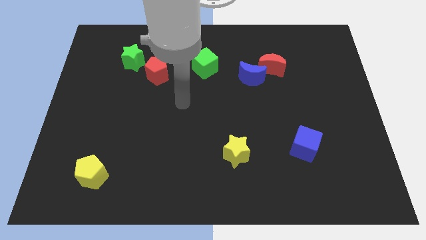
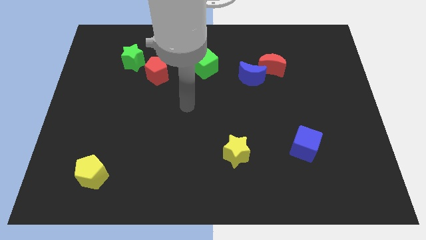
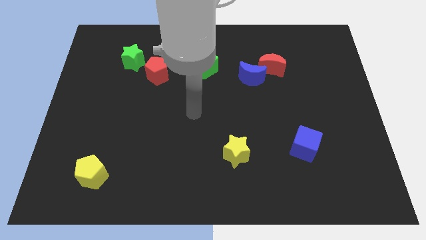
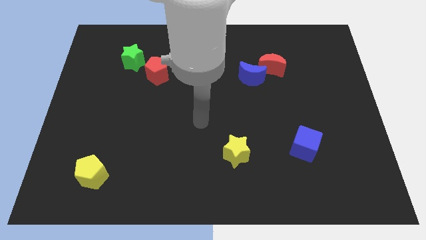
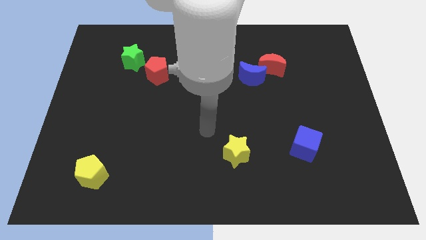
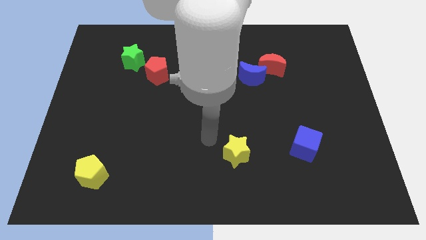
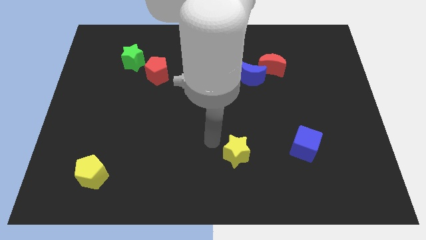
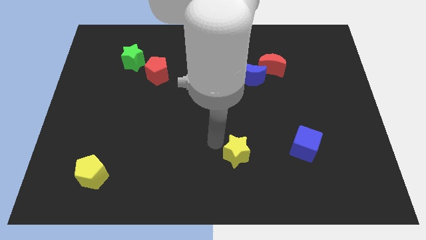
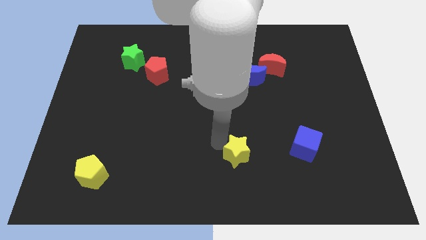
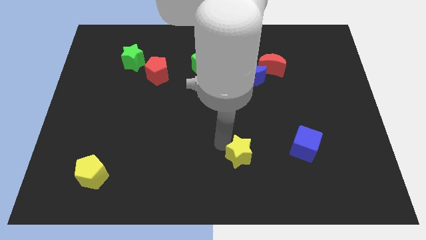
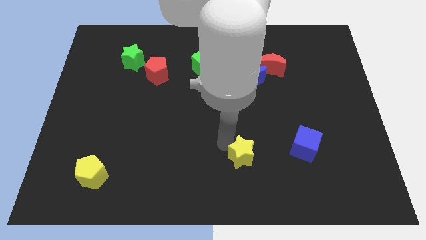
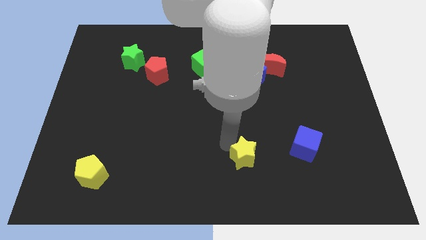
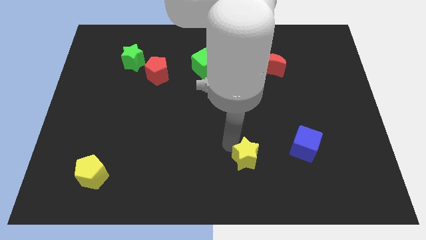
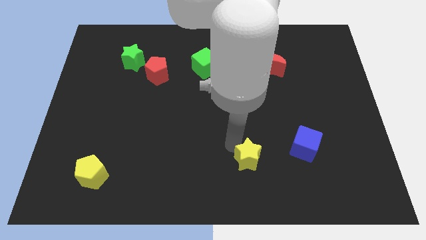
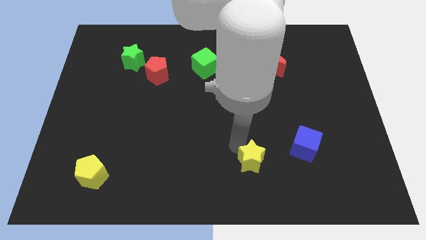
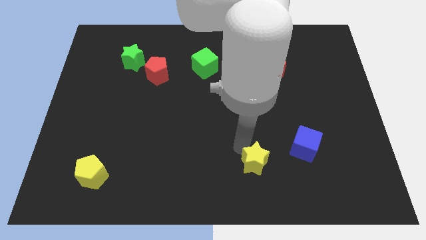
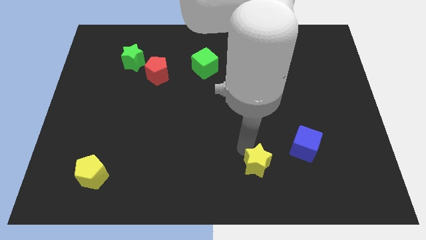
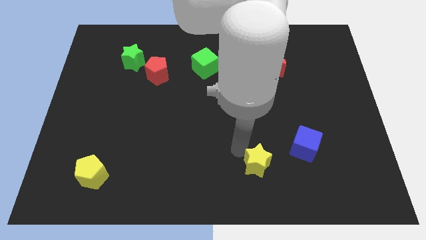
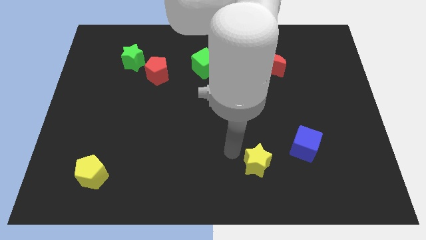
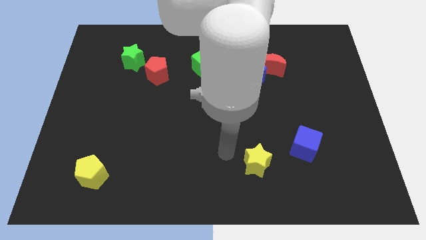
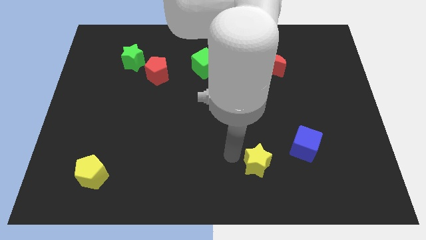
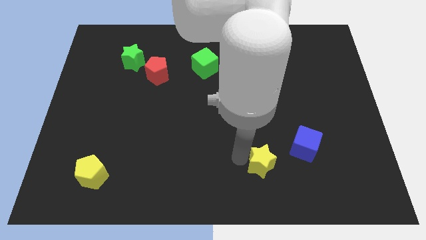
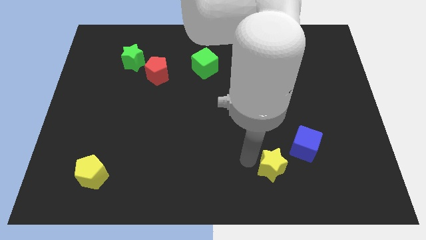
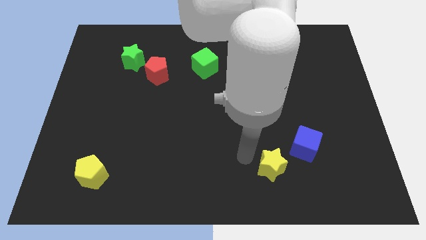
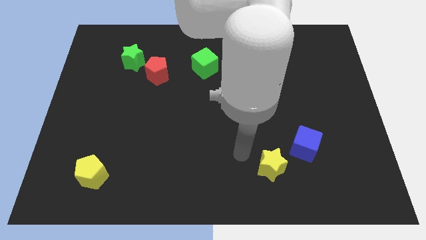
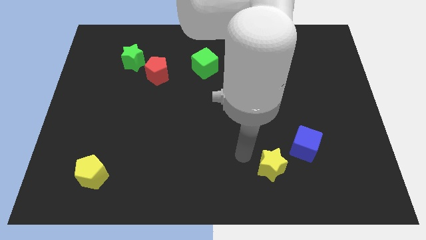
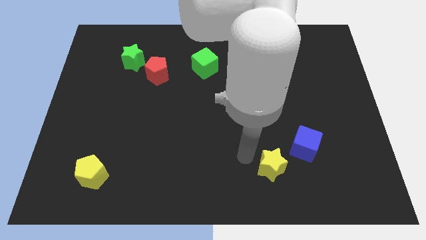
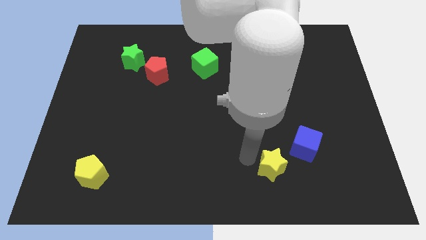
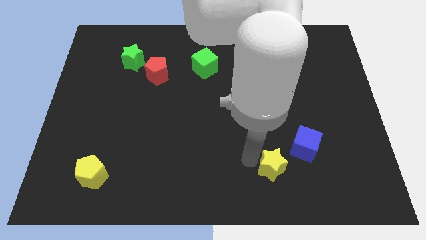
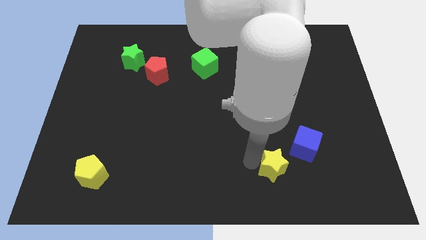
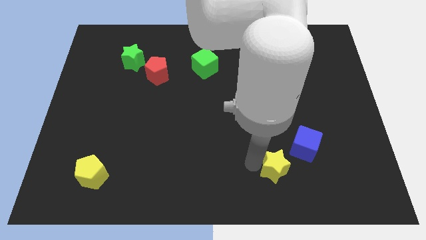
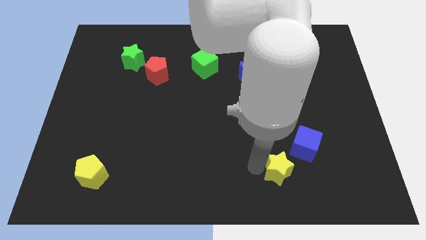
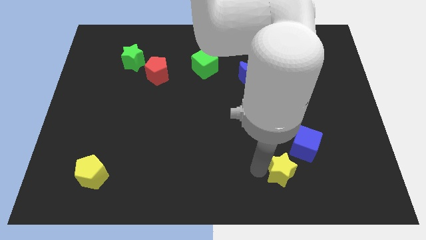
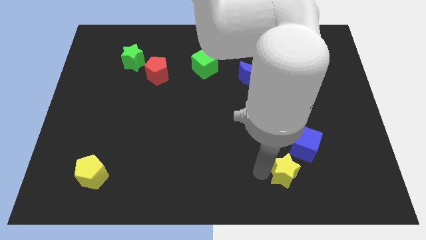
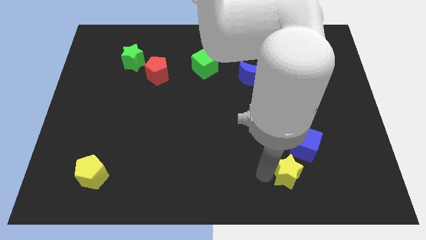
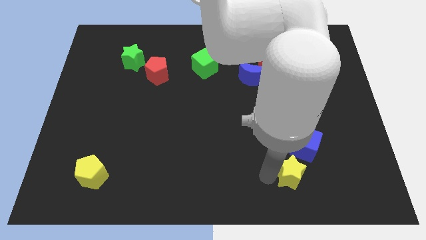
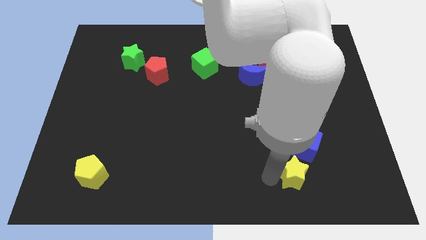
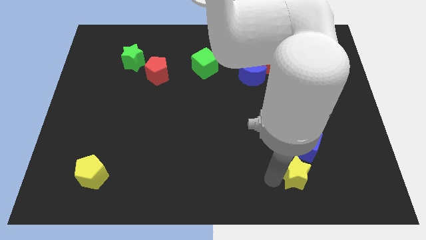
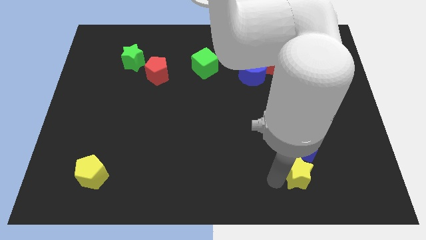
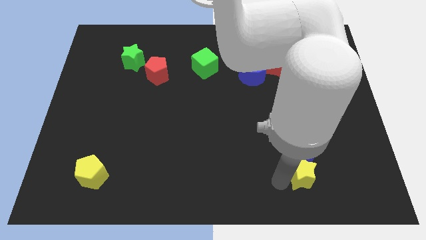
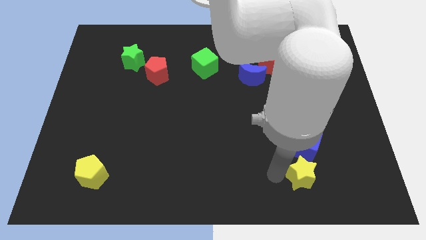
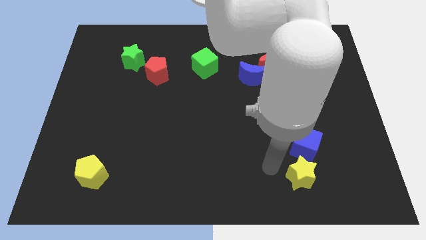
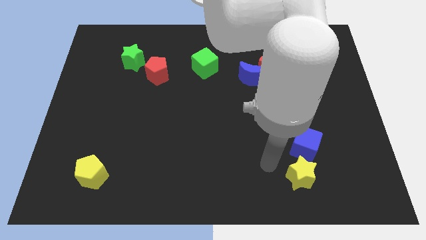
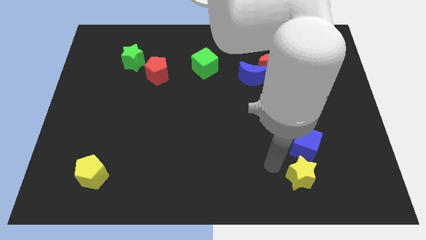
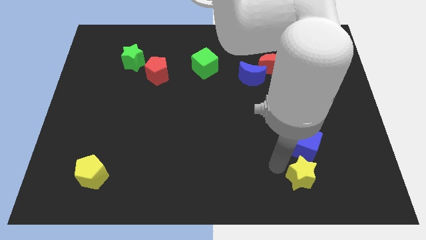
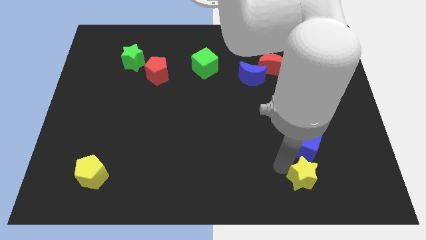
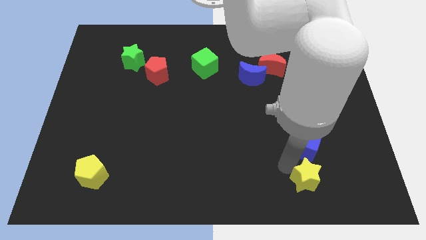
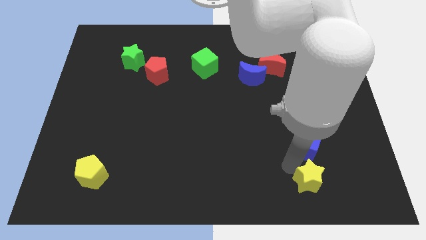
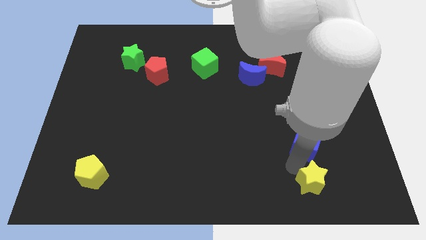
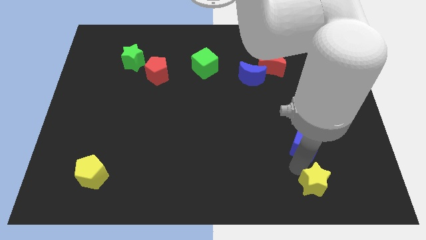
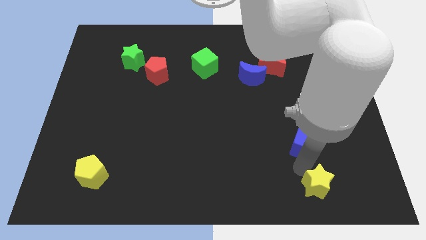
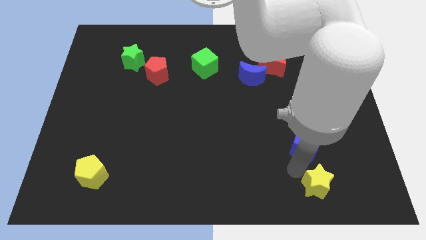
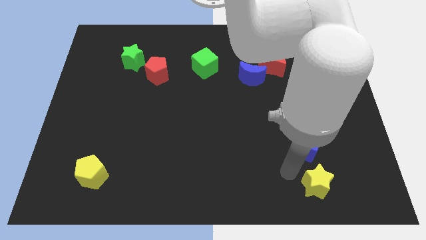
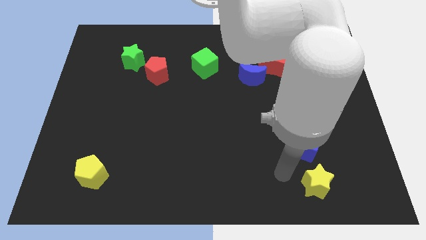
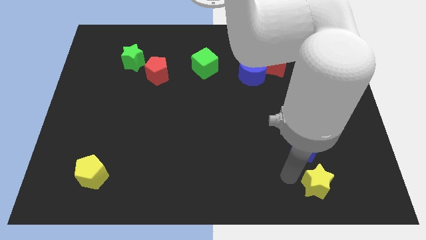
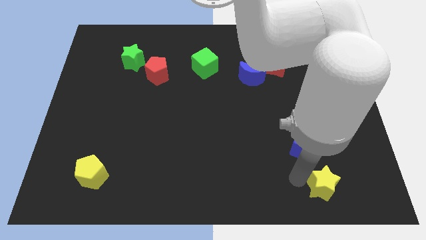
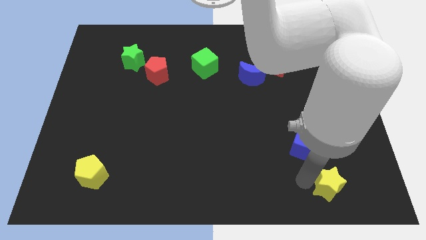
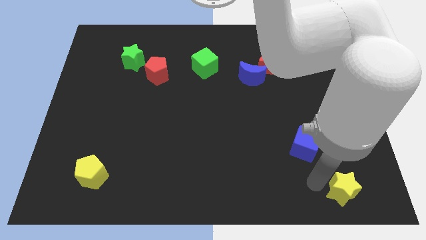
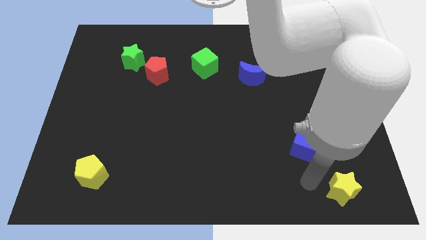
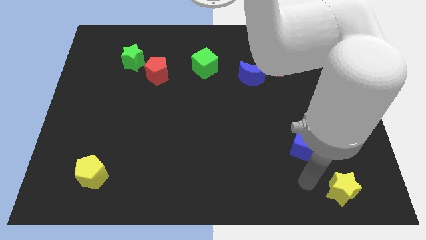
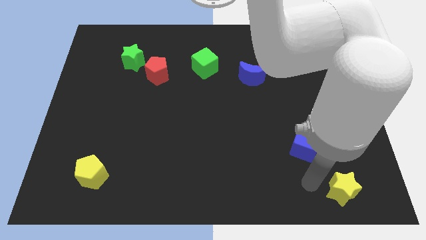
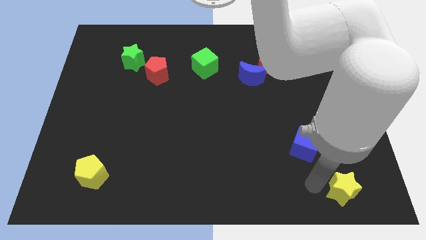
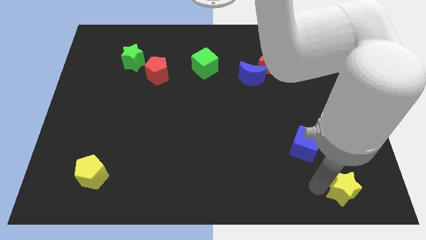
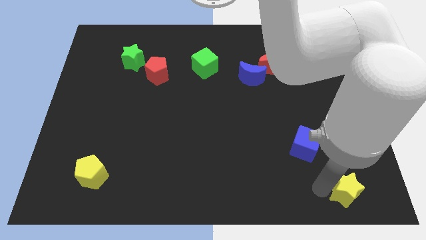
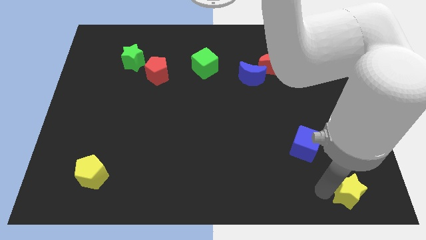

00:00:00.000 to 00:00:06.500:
slide the yellow star to the bottom right of the board
